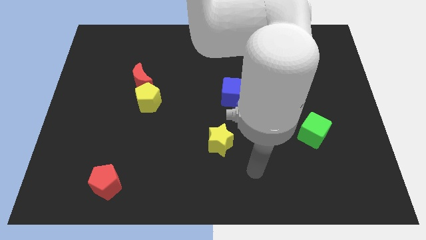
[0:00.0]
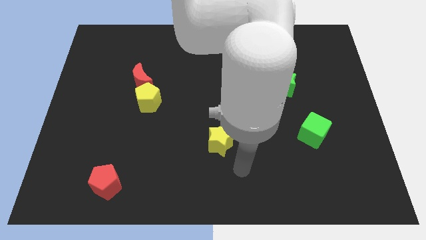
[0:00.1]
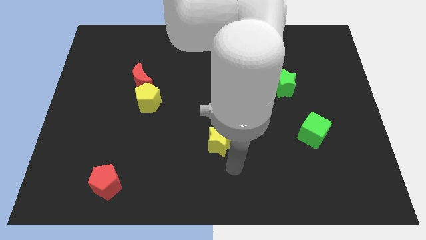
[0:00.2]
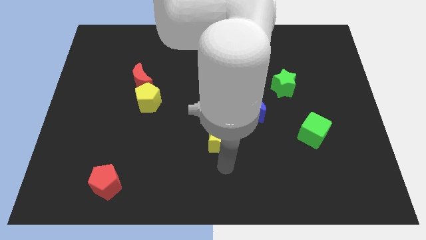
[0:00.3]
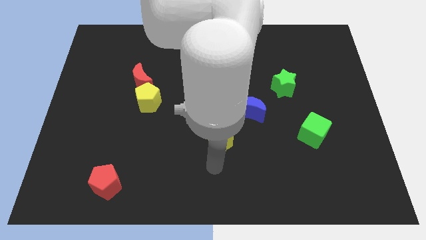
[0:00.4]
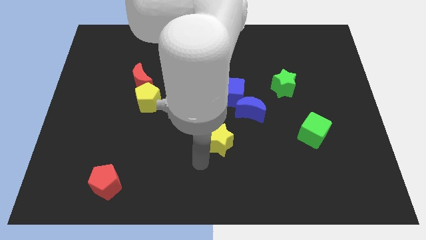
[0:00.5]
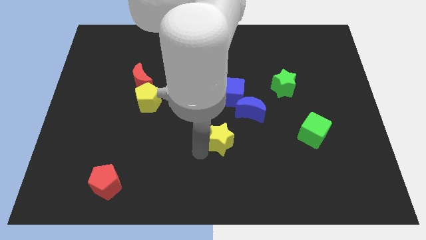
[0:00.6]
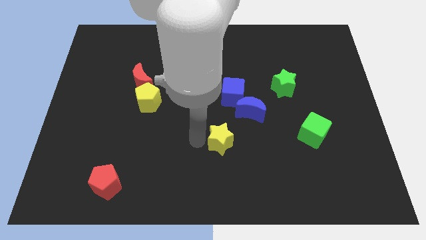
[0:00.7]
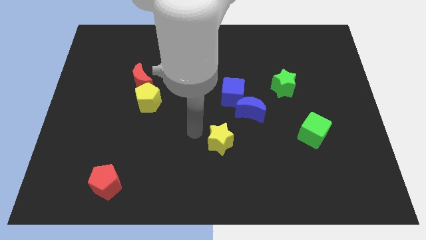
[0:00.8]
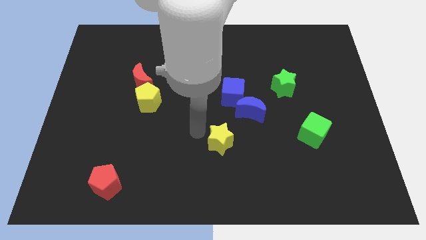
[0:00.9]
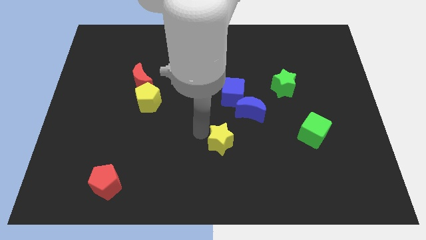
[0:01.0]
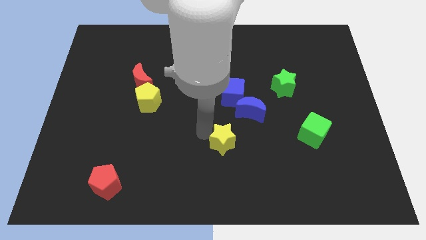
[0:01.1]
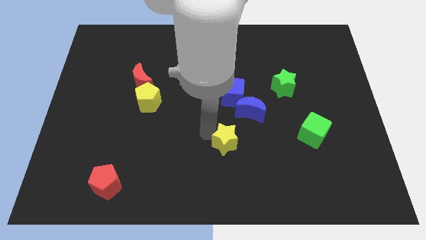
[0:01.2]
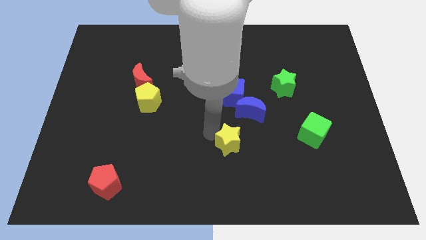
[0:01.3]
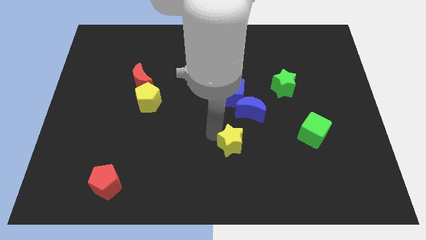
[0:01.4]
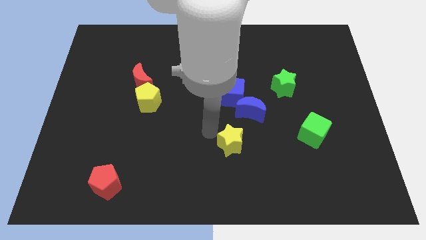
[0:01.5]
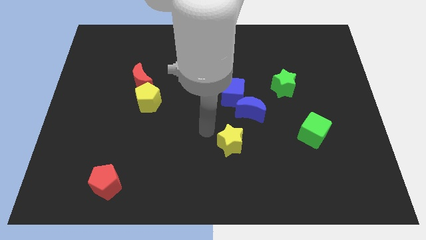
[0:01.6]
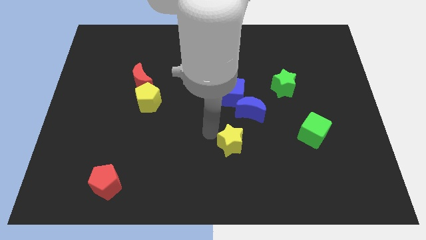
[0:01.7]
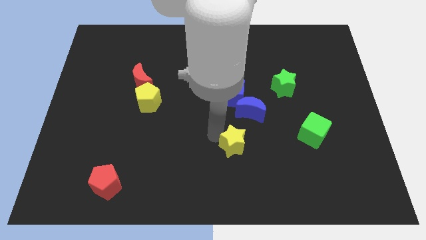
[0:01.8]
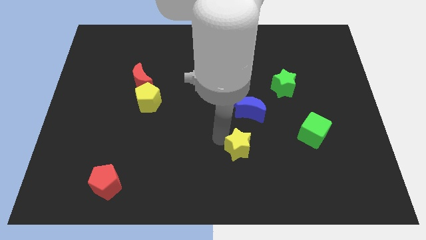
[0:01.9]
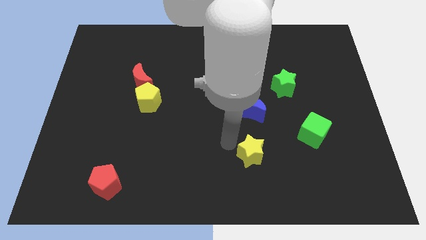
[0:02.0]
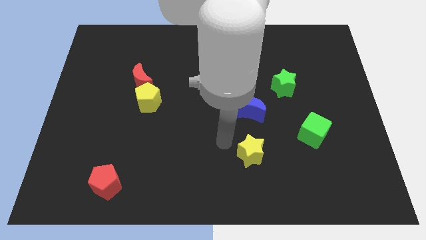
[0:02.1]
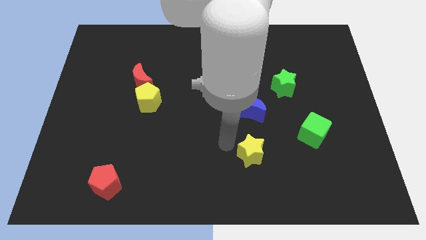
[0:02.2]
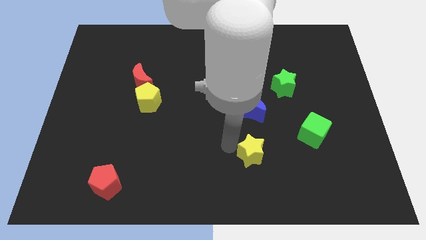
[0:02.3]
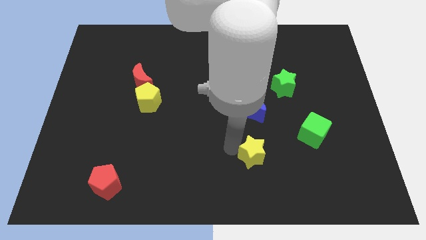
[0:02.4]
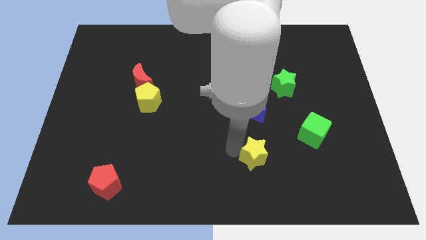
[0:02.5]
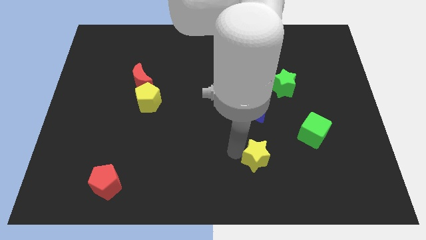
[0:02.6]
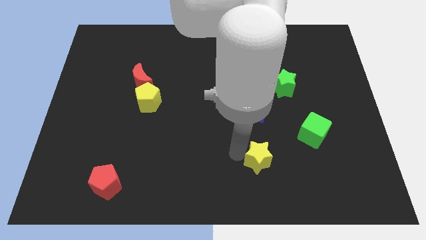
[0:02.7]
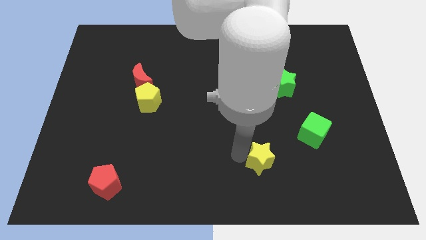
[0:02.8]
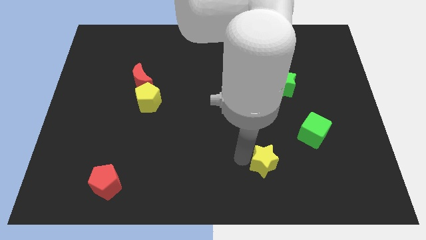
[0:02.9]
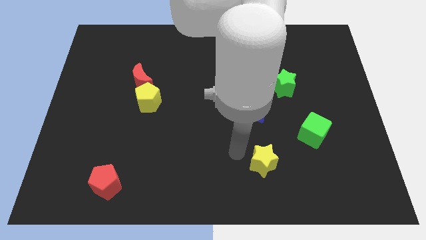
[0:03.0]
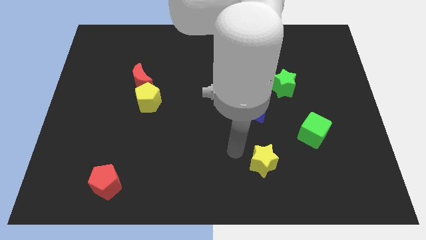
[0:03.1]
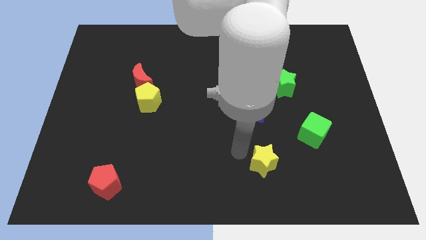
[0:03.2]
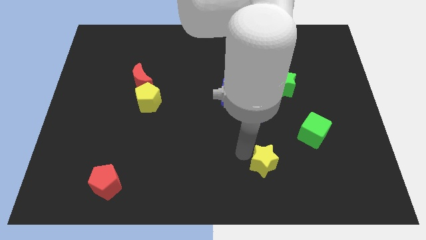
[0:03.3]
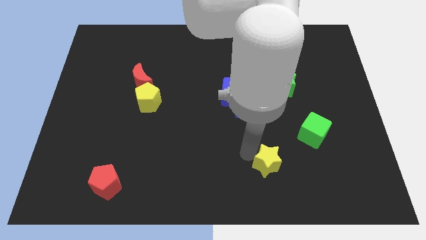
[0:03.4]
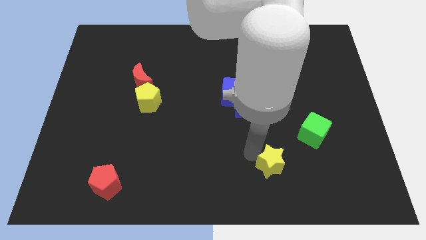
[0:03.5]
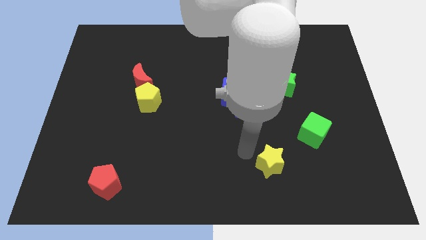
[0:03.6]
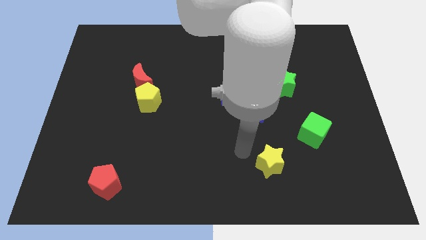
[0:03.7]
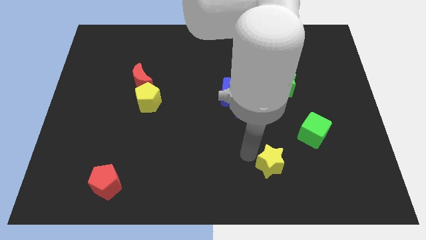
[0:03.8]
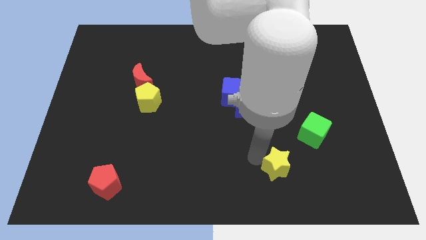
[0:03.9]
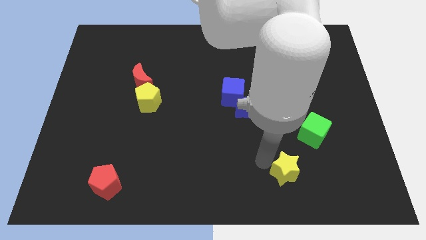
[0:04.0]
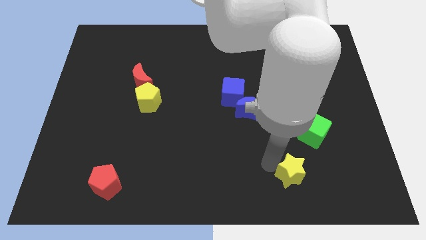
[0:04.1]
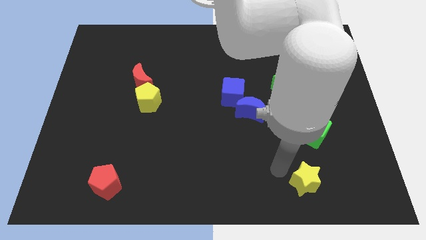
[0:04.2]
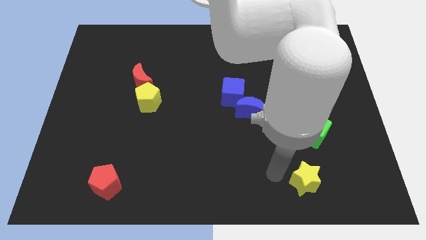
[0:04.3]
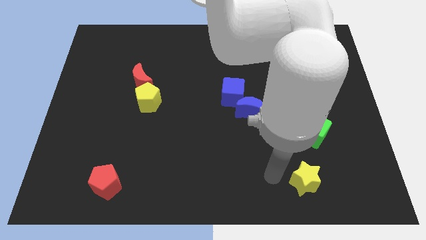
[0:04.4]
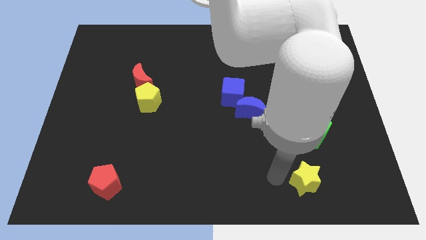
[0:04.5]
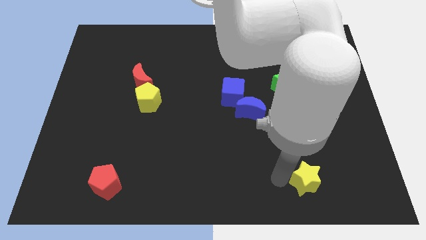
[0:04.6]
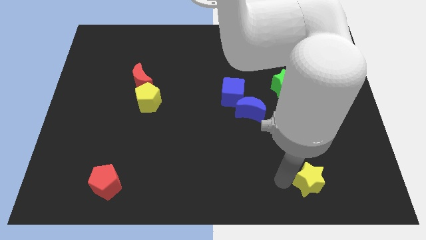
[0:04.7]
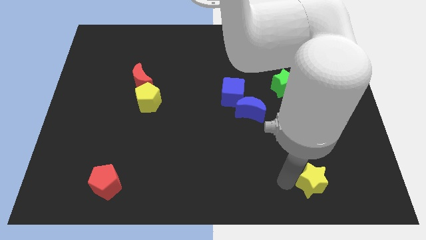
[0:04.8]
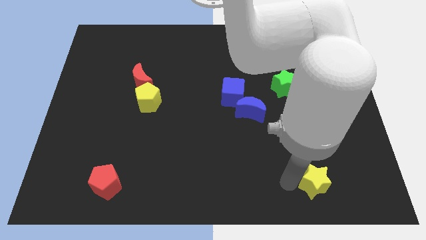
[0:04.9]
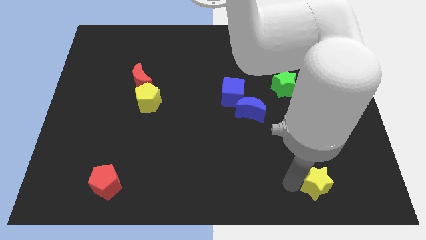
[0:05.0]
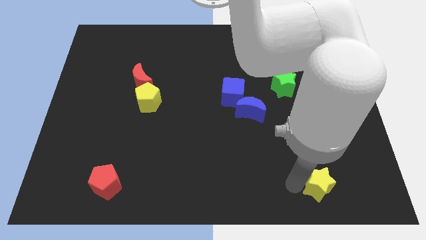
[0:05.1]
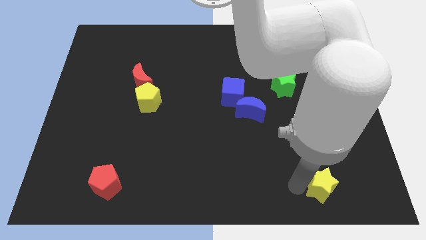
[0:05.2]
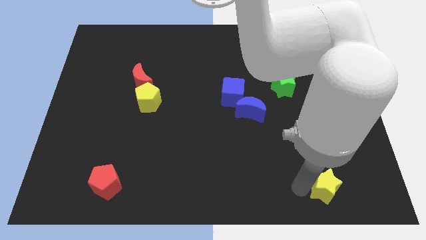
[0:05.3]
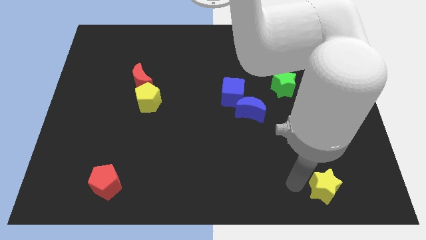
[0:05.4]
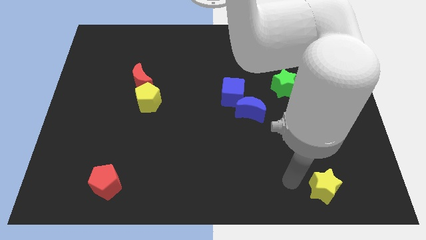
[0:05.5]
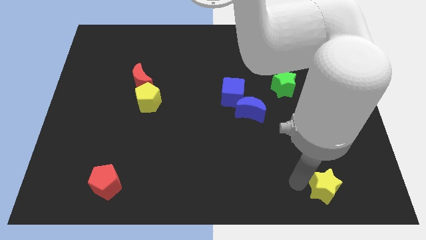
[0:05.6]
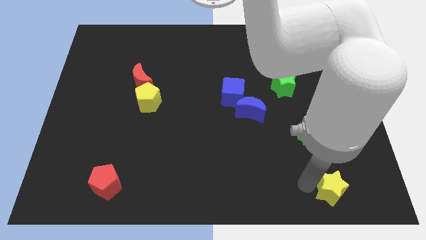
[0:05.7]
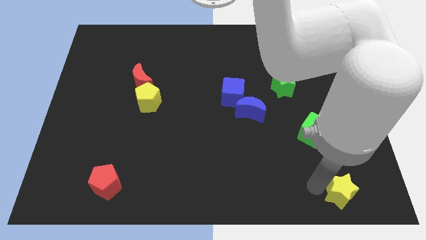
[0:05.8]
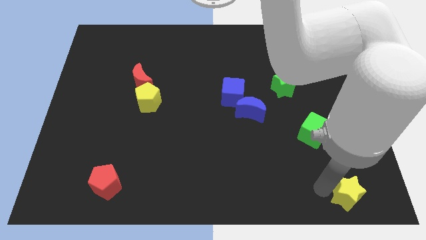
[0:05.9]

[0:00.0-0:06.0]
move the yellow star to the bottom right of the board

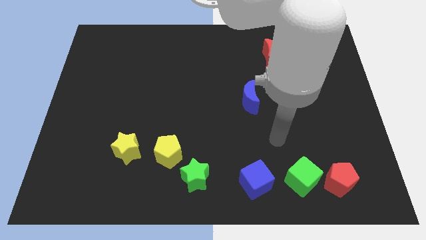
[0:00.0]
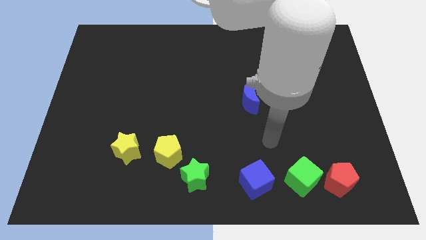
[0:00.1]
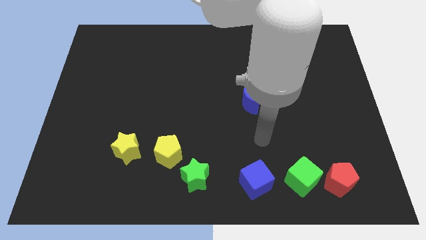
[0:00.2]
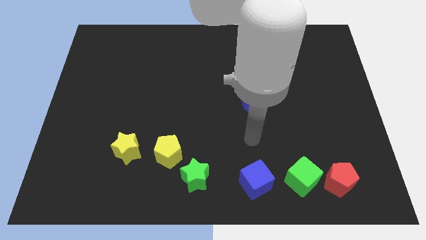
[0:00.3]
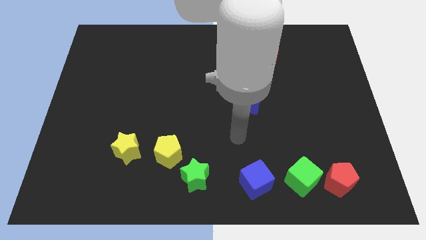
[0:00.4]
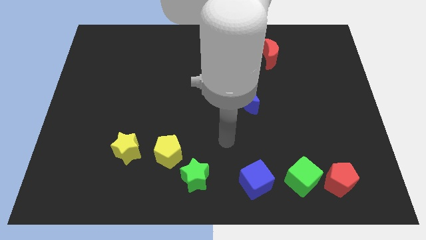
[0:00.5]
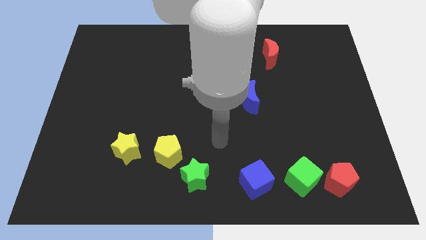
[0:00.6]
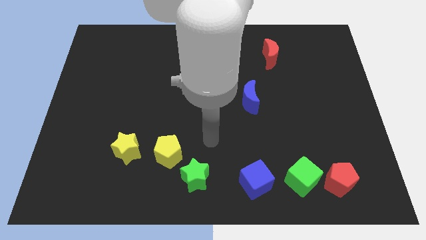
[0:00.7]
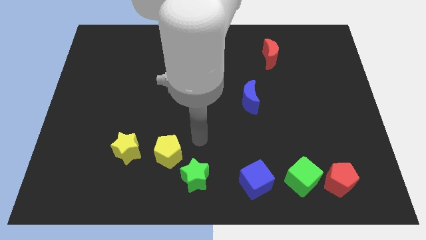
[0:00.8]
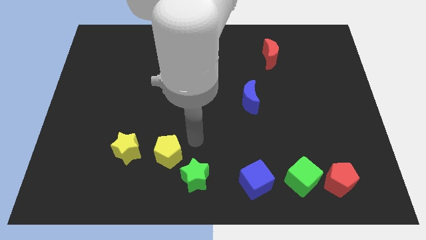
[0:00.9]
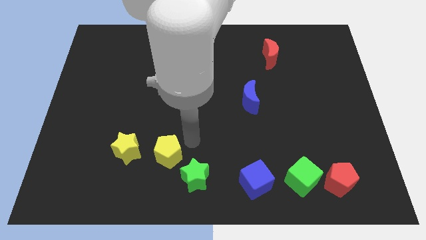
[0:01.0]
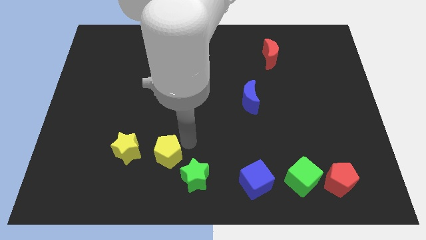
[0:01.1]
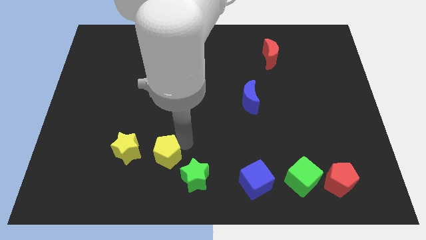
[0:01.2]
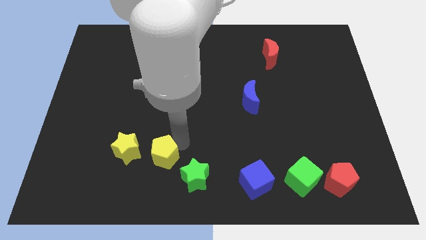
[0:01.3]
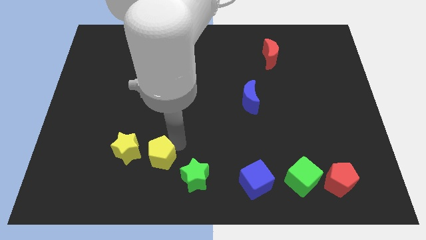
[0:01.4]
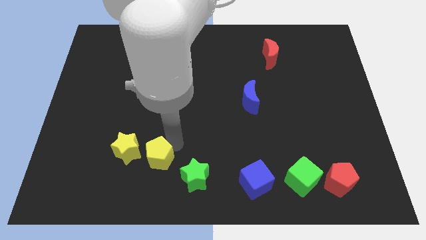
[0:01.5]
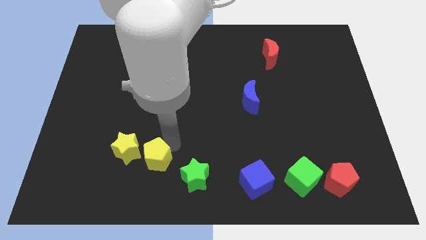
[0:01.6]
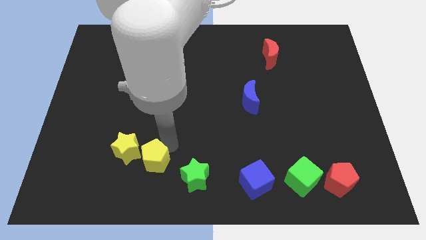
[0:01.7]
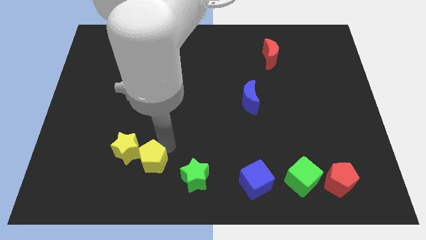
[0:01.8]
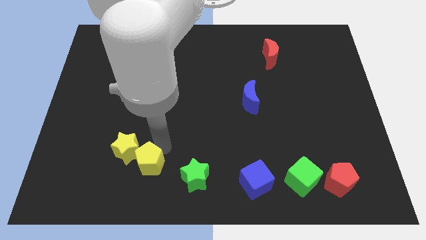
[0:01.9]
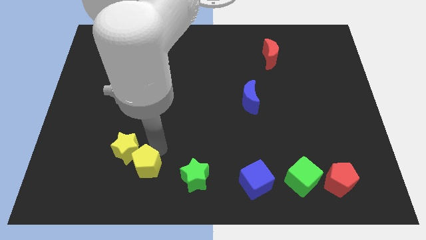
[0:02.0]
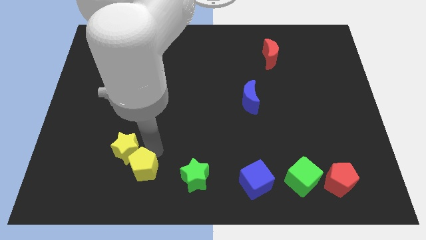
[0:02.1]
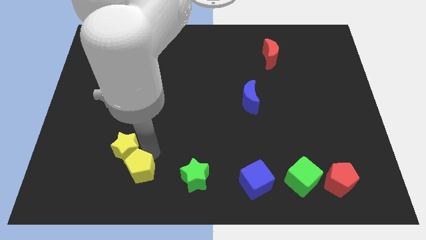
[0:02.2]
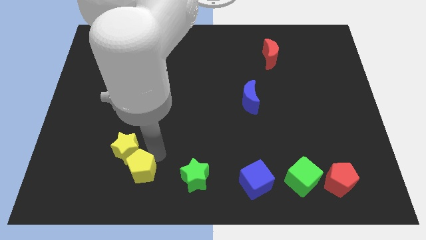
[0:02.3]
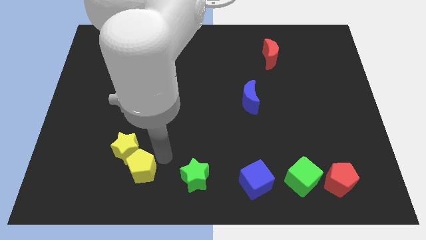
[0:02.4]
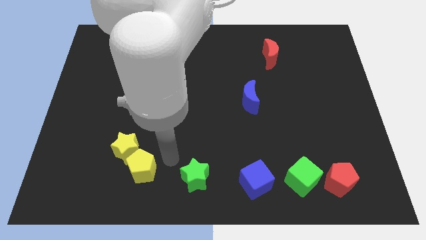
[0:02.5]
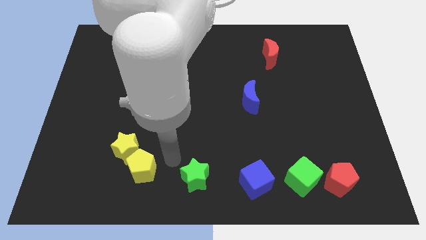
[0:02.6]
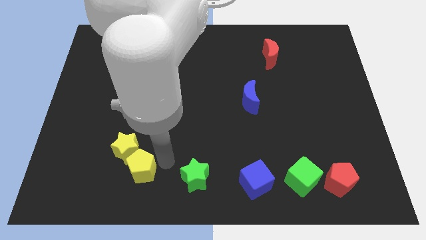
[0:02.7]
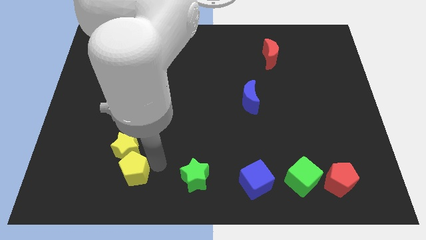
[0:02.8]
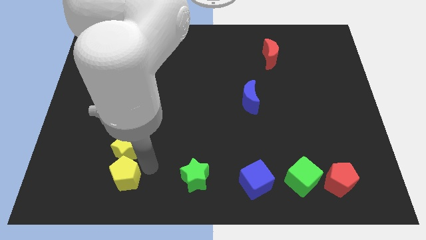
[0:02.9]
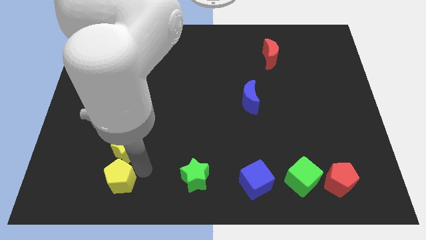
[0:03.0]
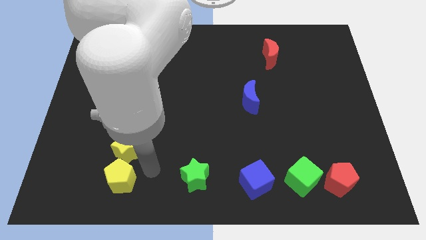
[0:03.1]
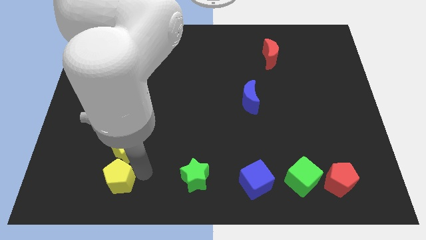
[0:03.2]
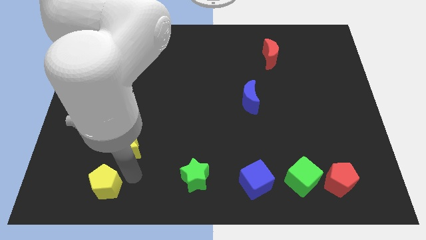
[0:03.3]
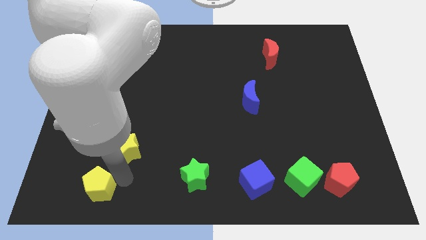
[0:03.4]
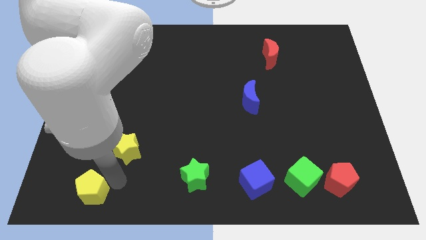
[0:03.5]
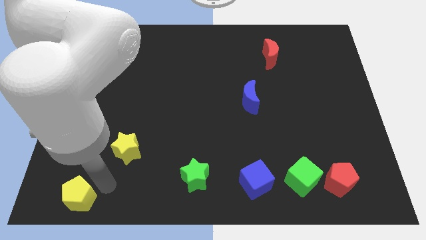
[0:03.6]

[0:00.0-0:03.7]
move the yellow pentagon to the bottom left
